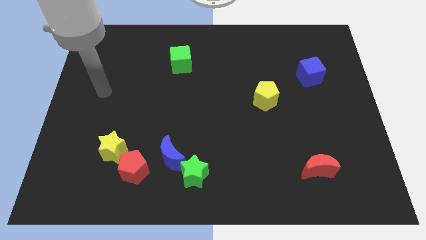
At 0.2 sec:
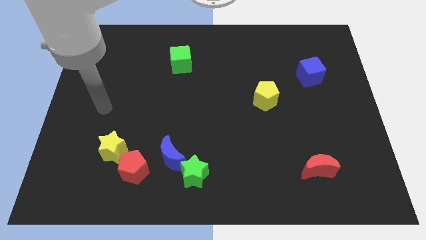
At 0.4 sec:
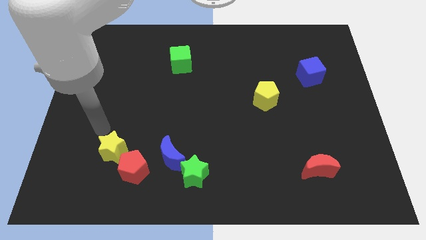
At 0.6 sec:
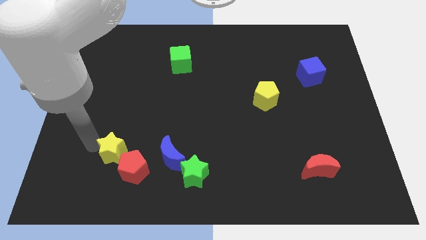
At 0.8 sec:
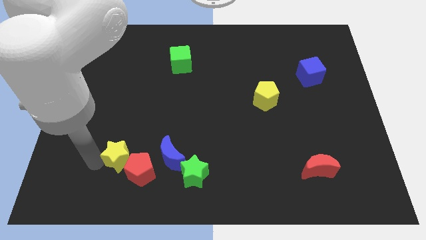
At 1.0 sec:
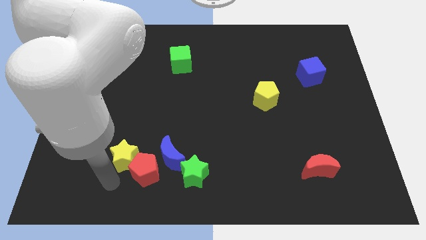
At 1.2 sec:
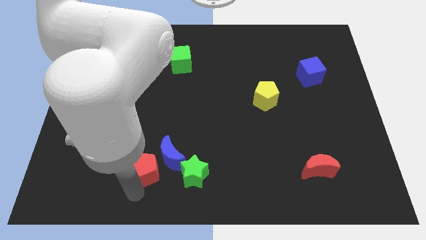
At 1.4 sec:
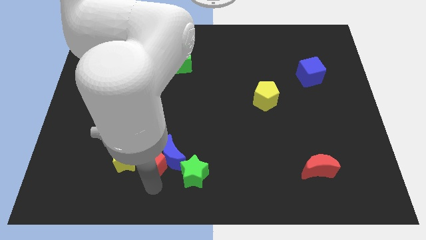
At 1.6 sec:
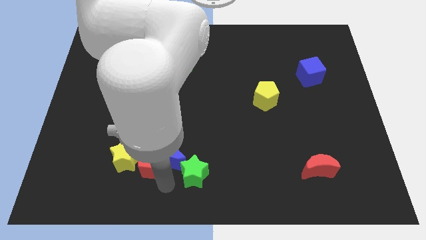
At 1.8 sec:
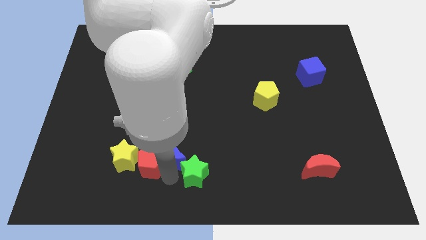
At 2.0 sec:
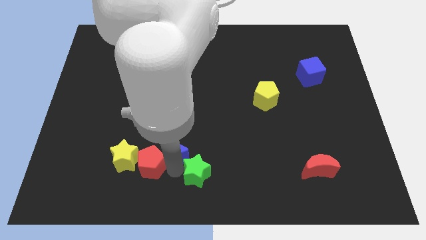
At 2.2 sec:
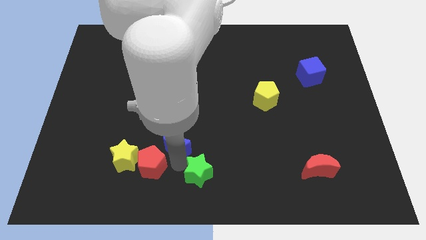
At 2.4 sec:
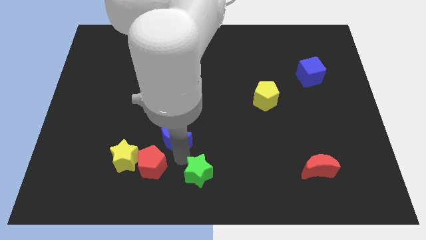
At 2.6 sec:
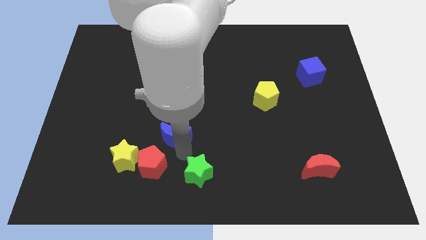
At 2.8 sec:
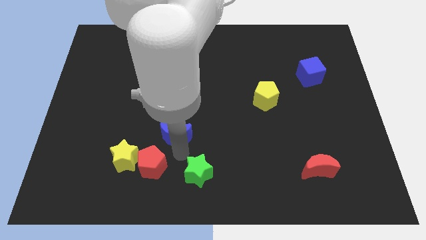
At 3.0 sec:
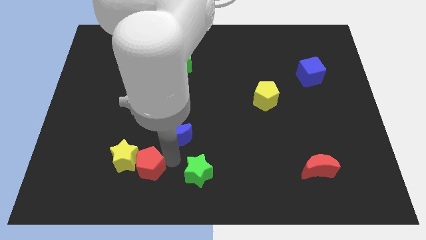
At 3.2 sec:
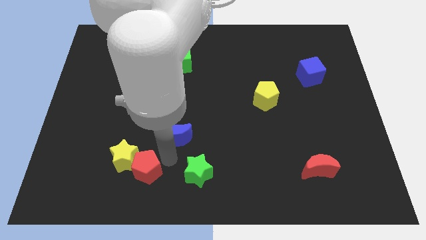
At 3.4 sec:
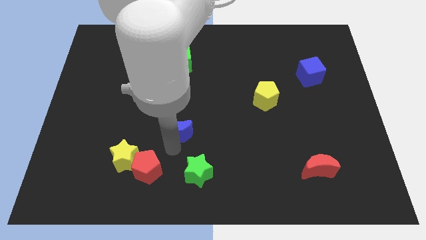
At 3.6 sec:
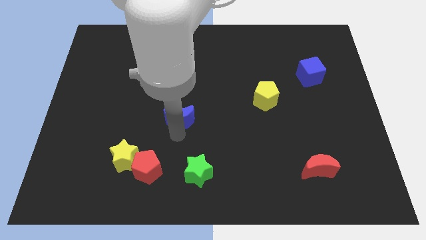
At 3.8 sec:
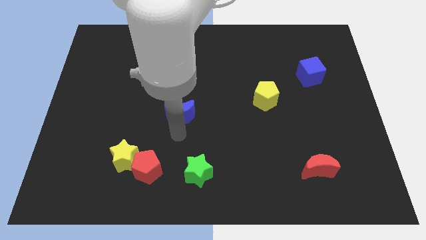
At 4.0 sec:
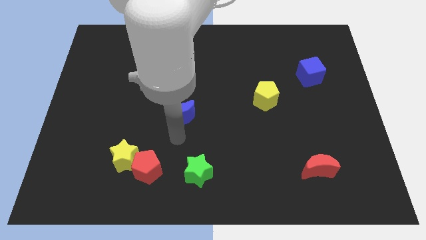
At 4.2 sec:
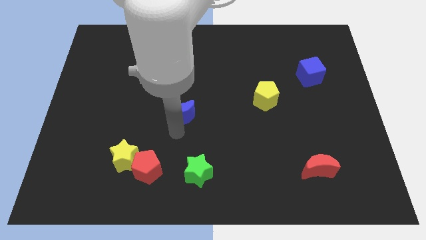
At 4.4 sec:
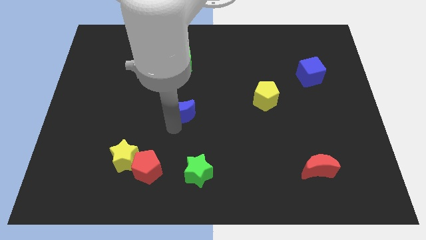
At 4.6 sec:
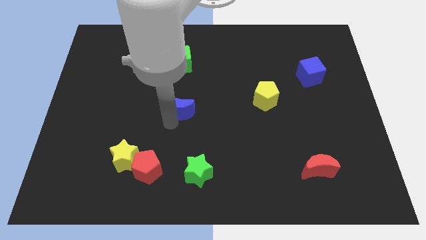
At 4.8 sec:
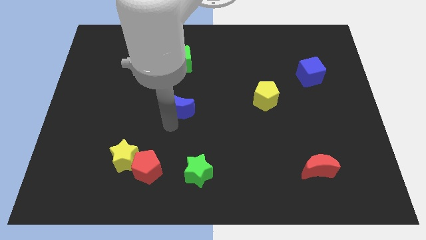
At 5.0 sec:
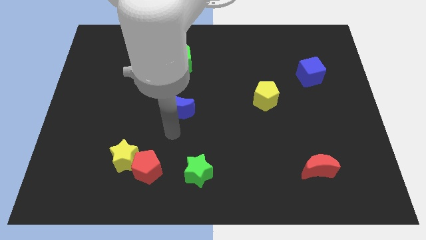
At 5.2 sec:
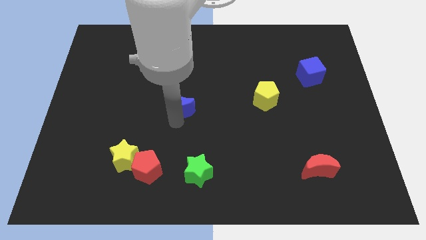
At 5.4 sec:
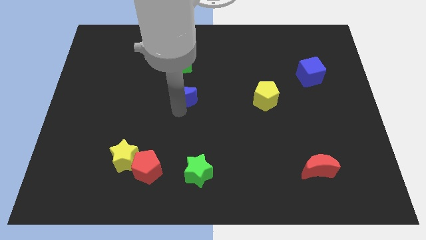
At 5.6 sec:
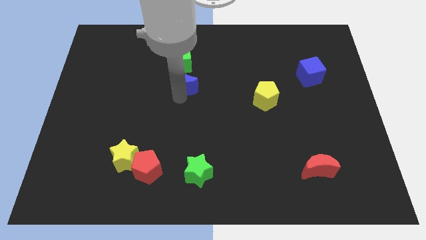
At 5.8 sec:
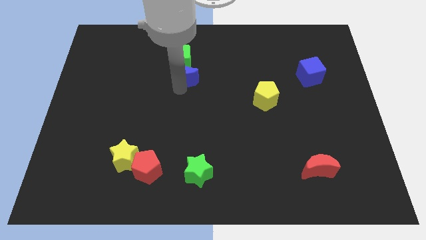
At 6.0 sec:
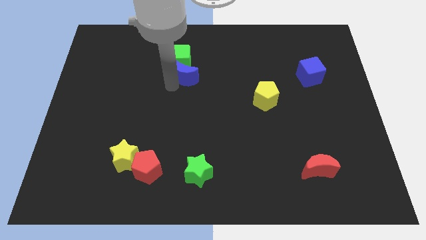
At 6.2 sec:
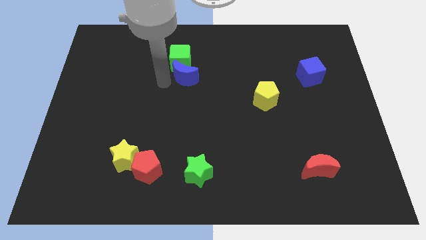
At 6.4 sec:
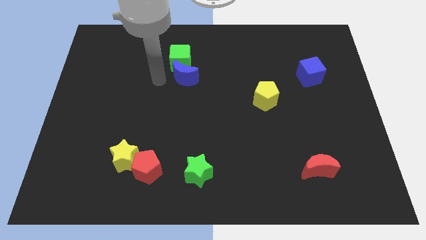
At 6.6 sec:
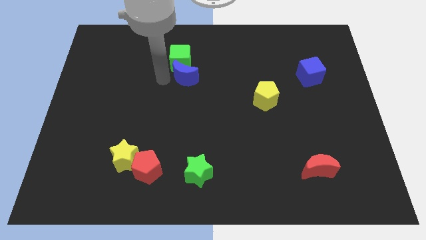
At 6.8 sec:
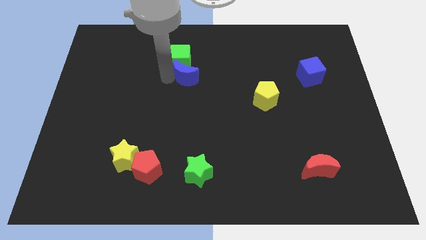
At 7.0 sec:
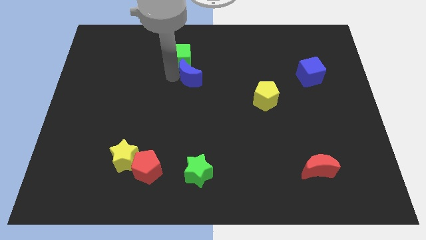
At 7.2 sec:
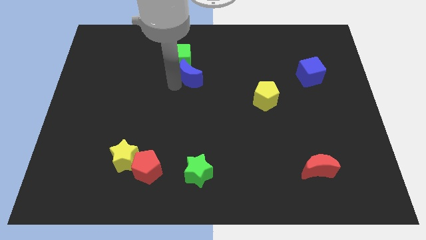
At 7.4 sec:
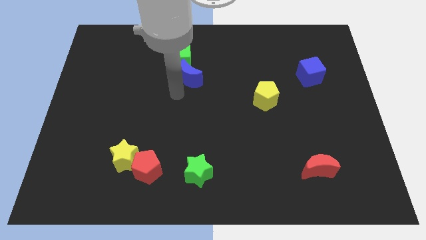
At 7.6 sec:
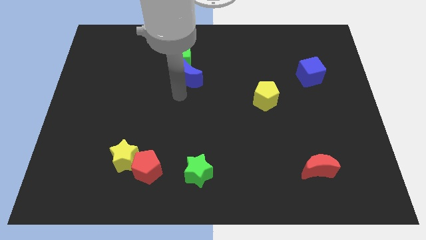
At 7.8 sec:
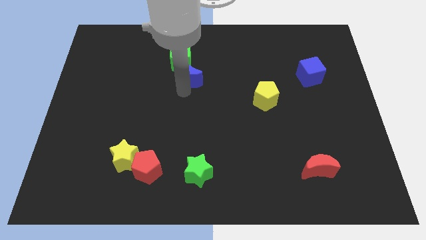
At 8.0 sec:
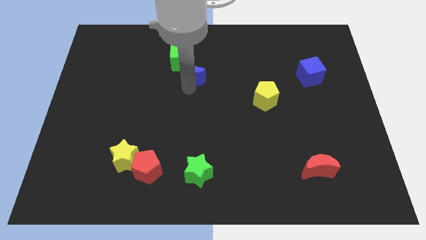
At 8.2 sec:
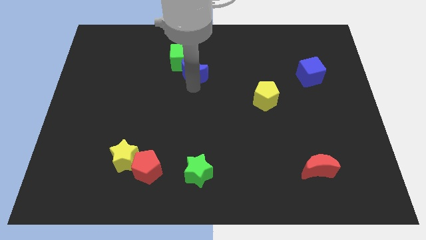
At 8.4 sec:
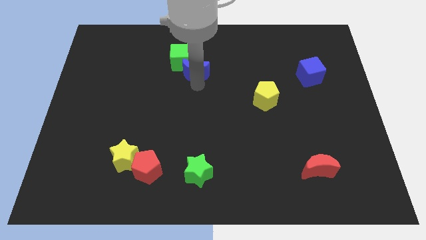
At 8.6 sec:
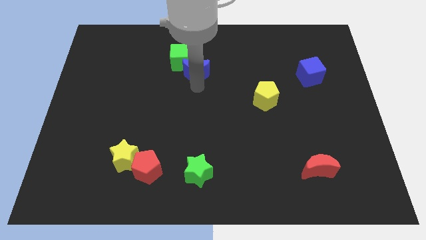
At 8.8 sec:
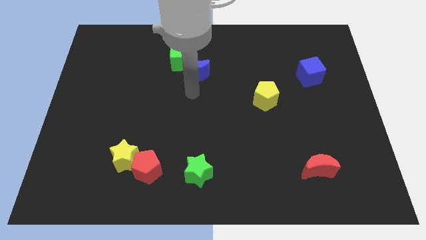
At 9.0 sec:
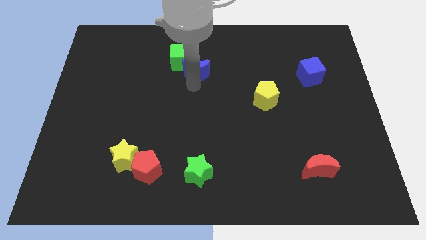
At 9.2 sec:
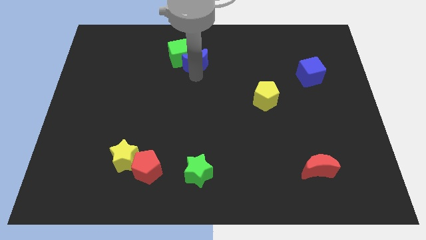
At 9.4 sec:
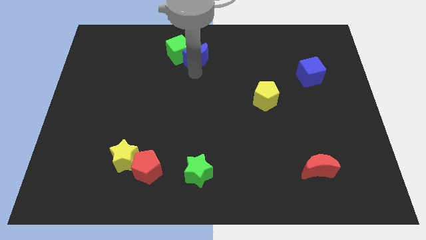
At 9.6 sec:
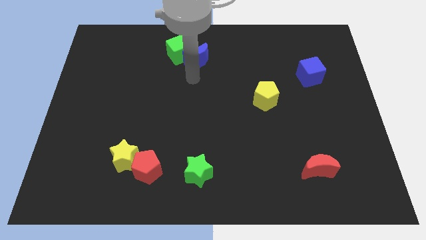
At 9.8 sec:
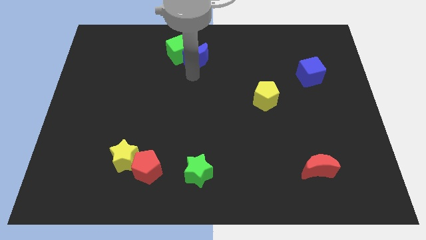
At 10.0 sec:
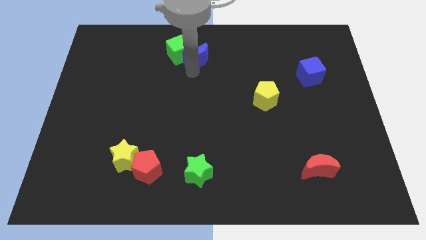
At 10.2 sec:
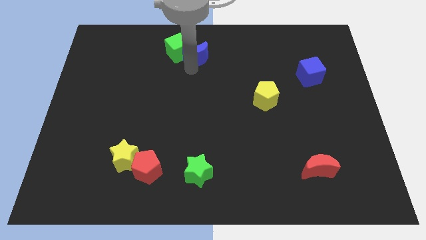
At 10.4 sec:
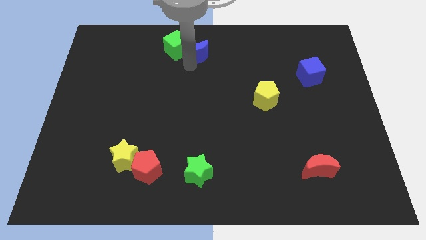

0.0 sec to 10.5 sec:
put the blue moon to the top side
